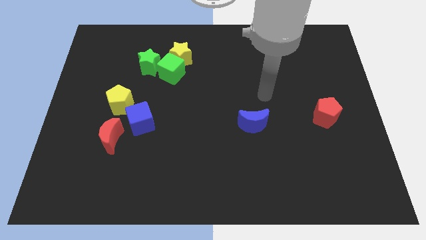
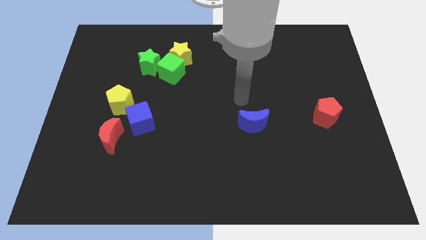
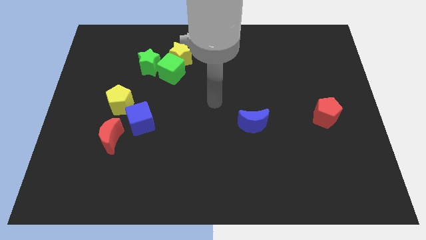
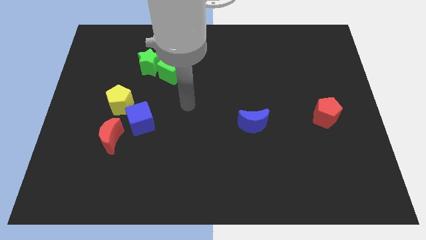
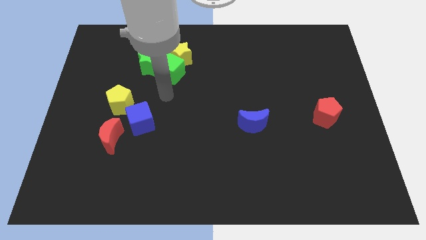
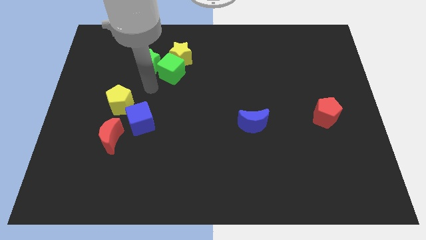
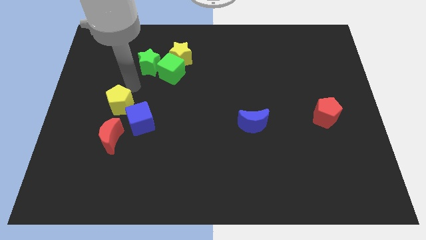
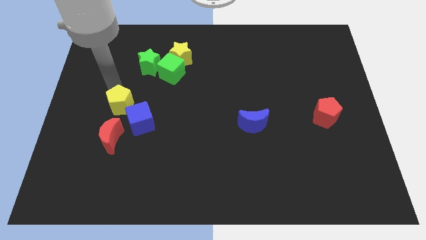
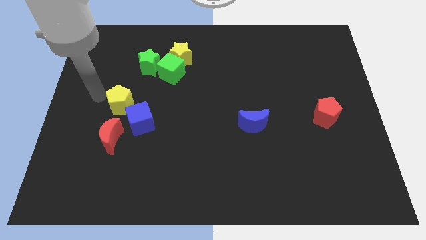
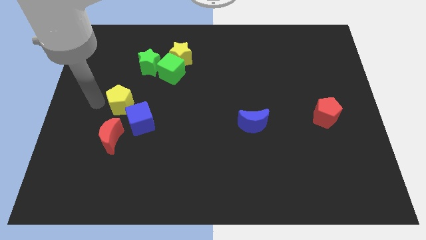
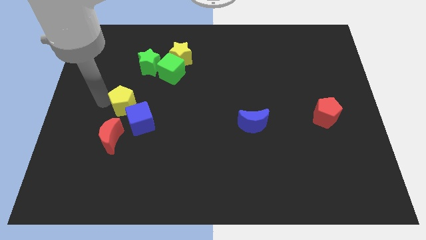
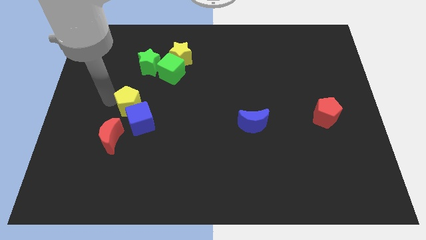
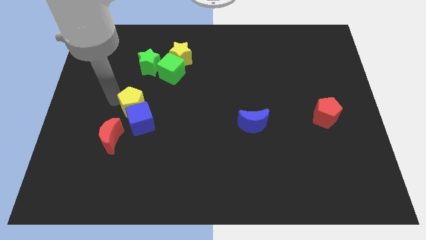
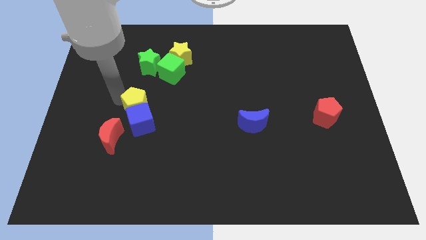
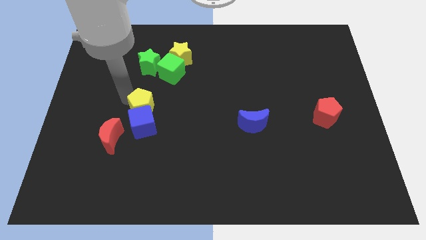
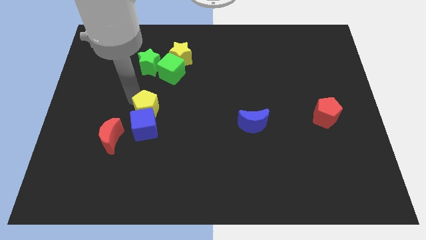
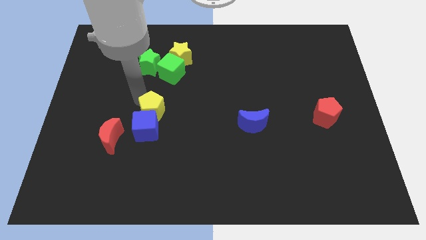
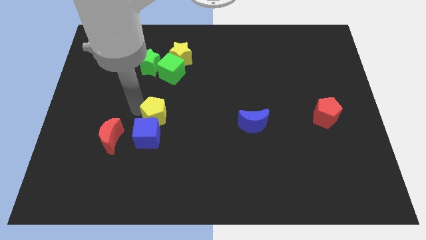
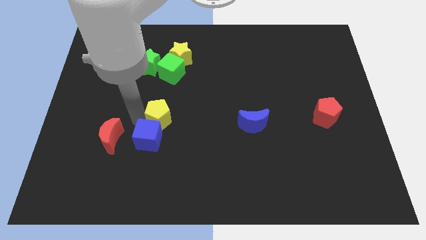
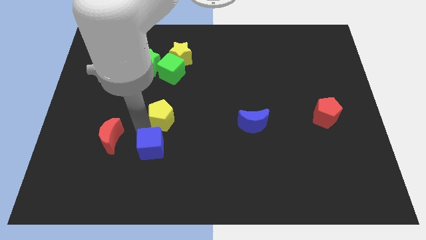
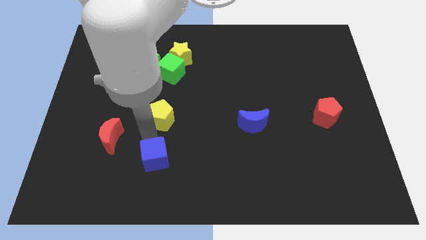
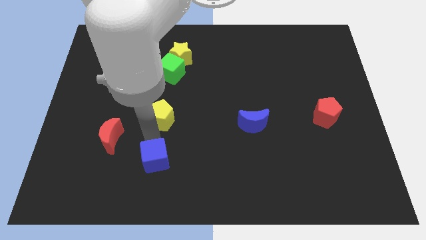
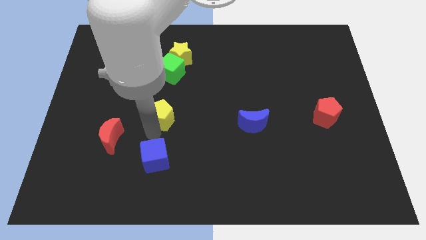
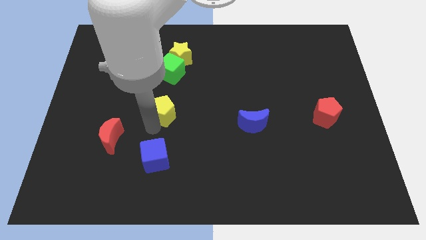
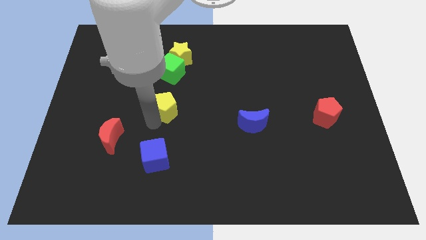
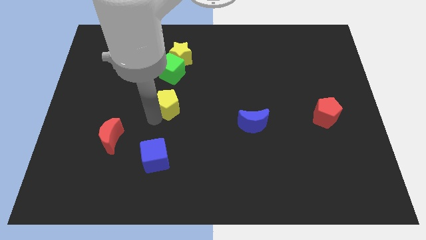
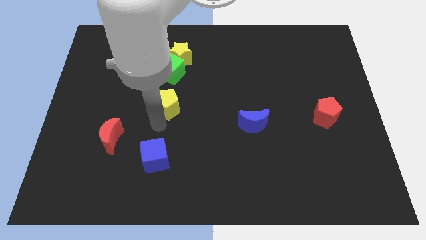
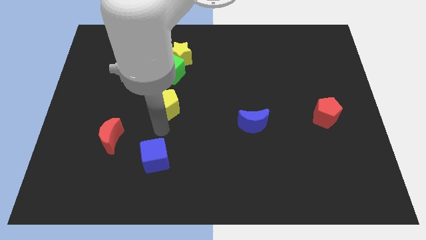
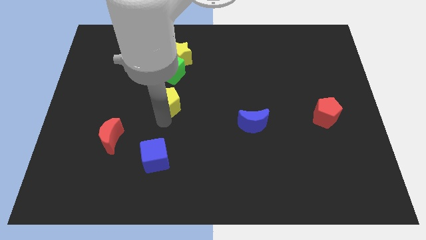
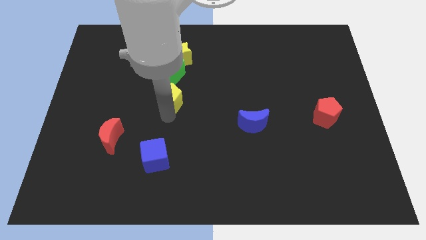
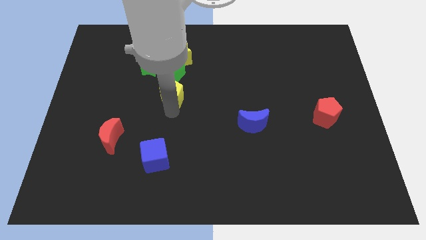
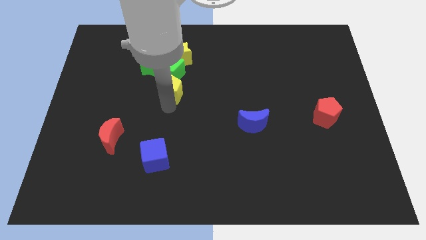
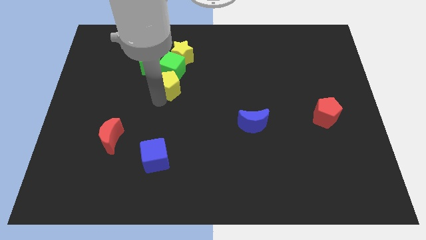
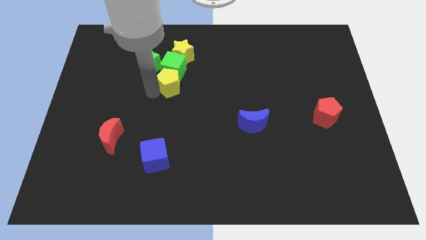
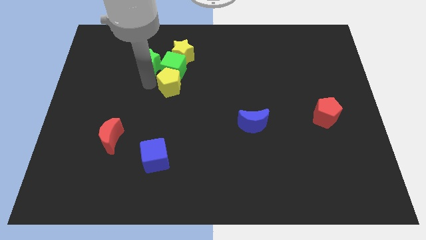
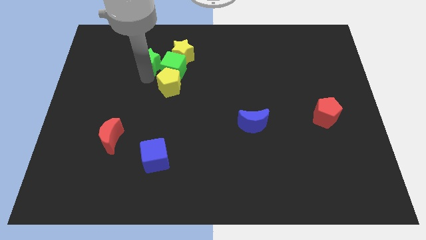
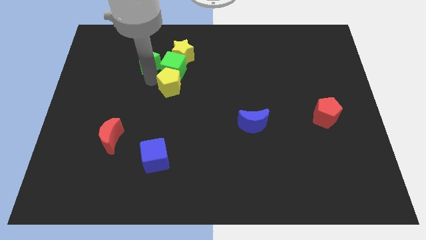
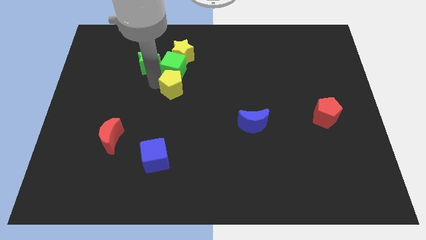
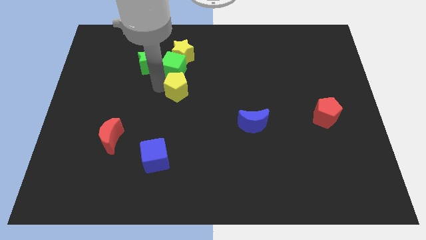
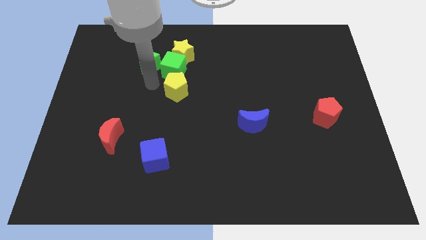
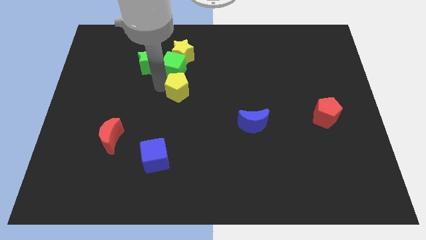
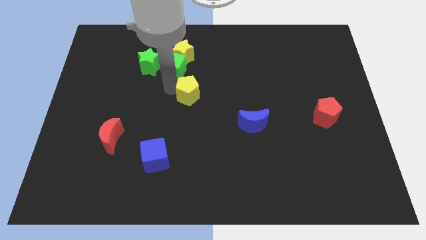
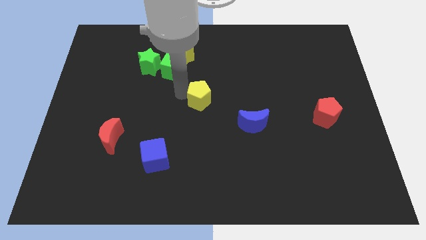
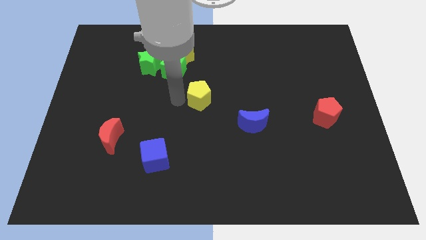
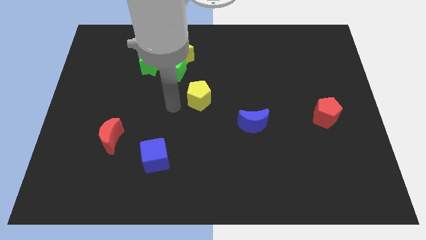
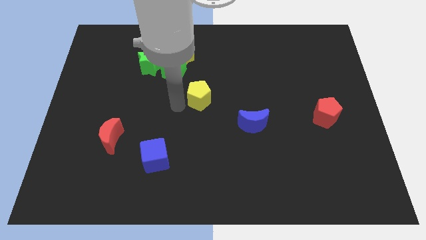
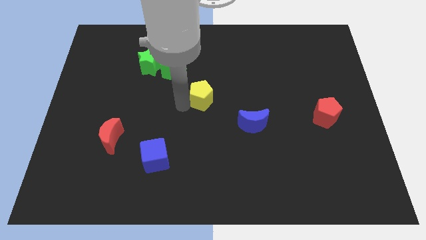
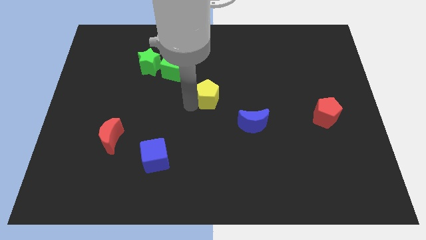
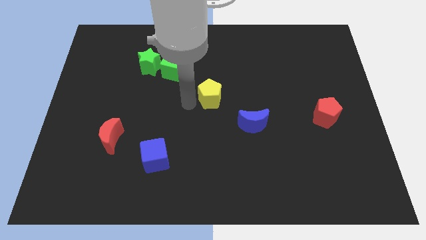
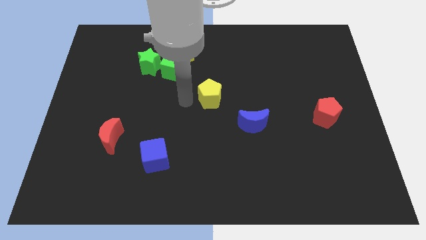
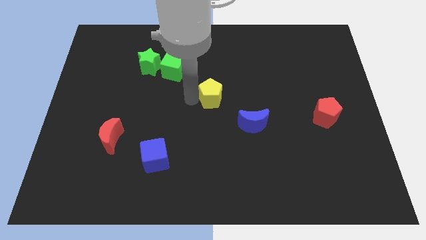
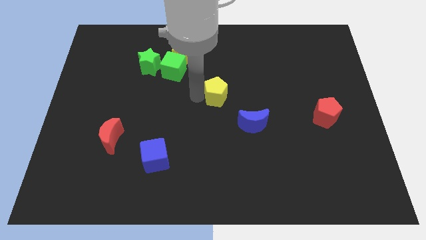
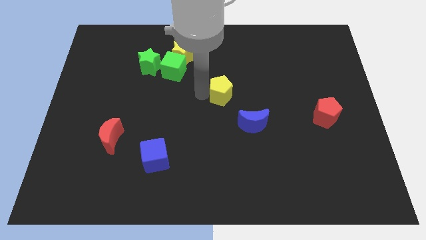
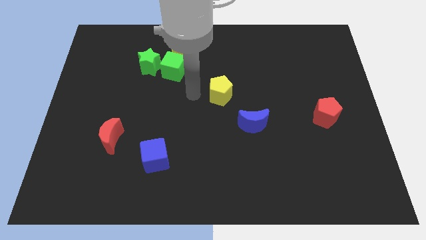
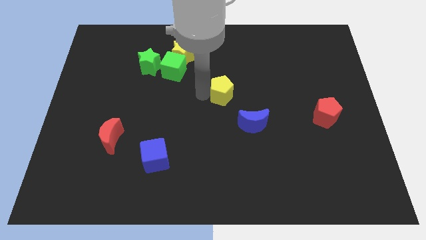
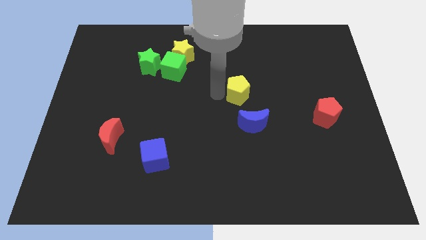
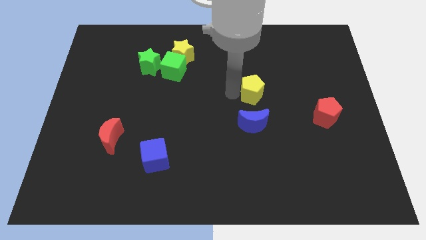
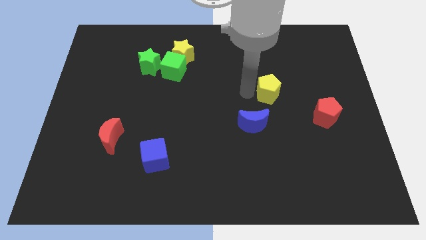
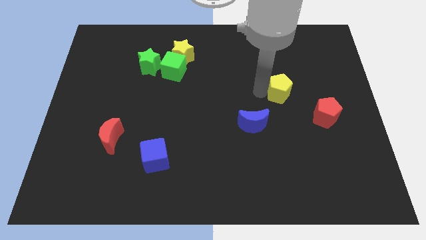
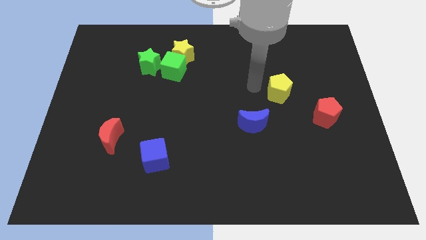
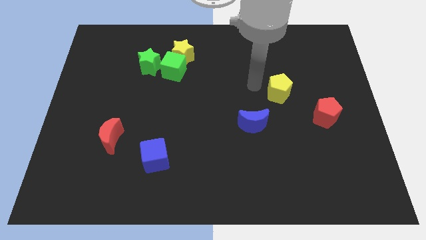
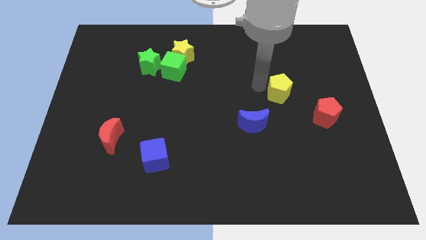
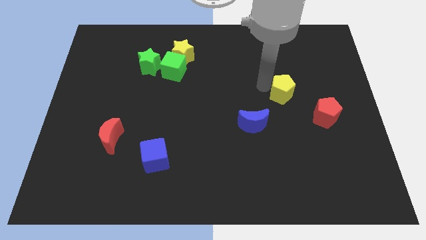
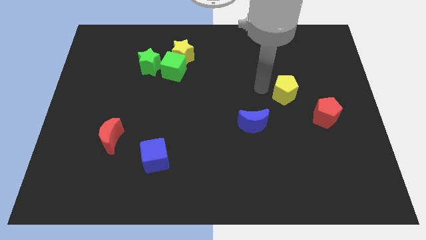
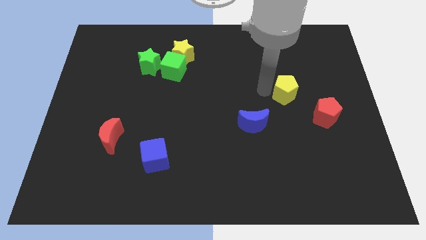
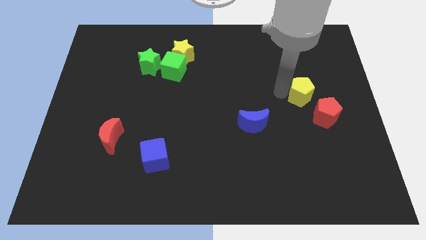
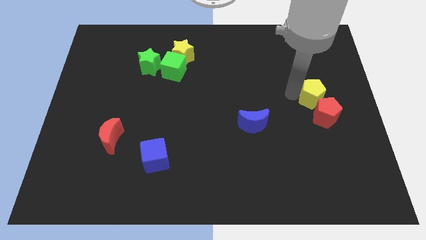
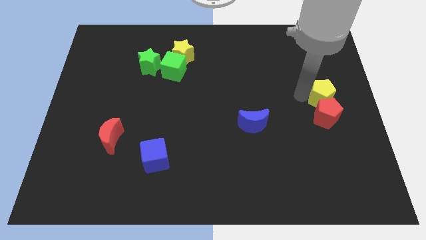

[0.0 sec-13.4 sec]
push the yellow pentagon to the center right
